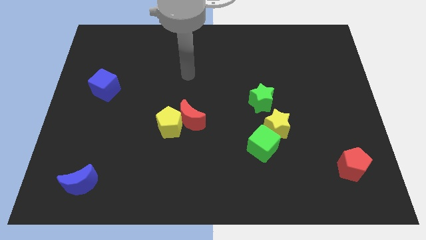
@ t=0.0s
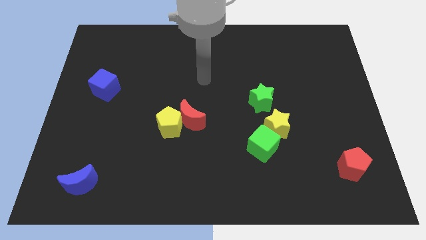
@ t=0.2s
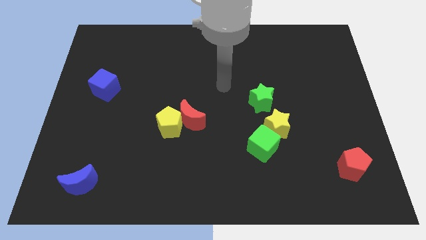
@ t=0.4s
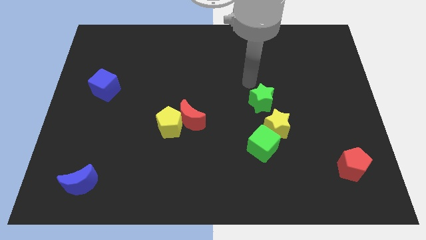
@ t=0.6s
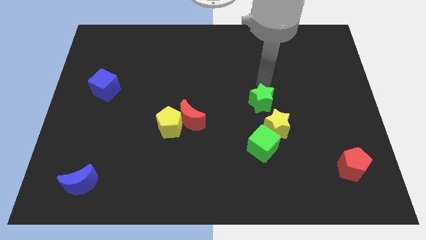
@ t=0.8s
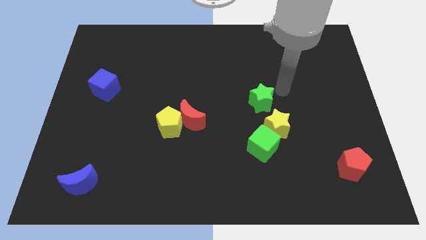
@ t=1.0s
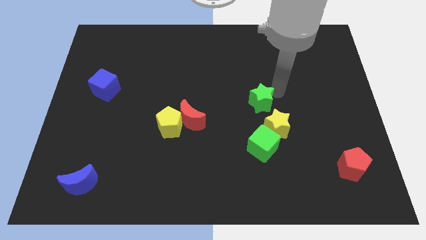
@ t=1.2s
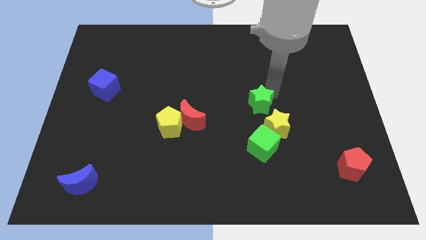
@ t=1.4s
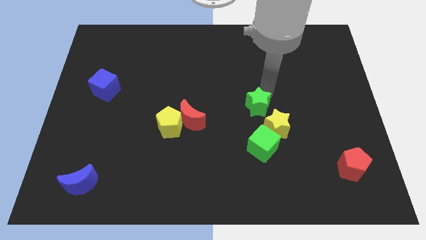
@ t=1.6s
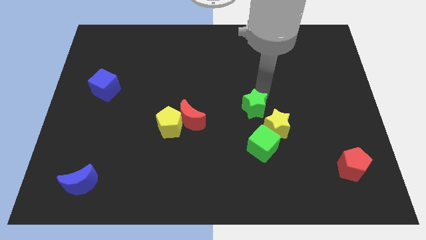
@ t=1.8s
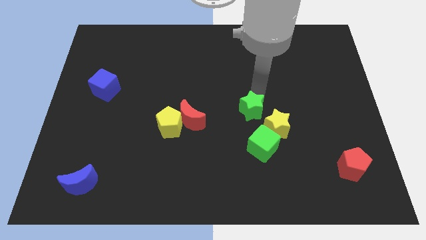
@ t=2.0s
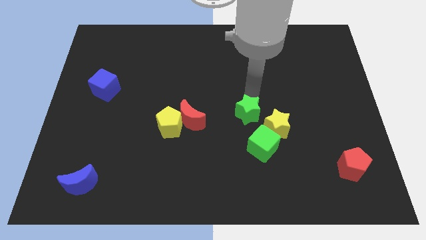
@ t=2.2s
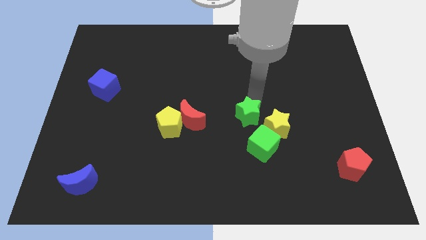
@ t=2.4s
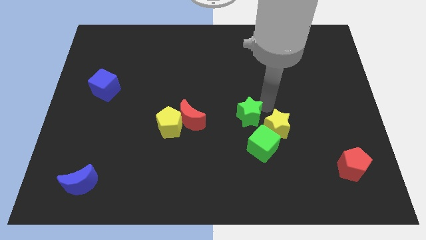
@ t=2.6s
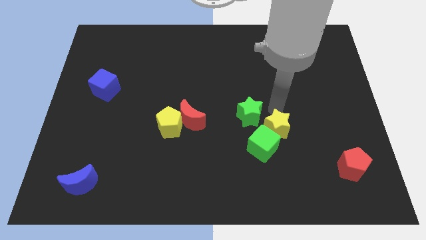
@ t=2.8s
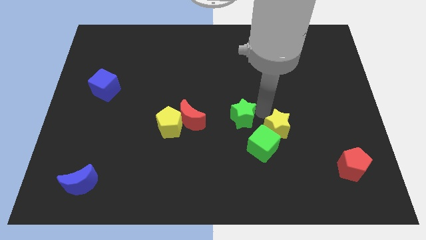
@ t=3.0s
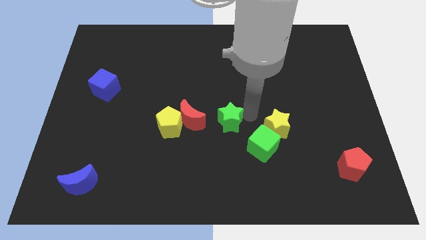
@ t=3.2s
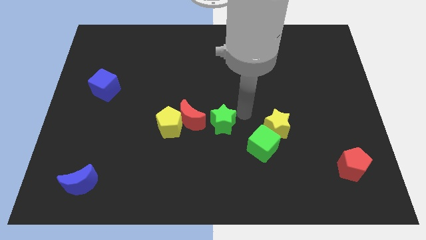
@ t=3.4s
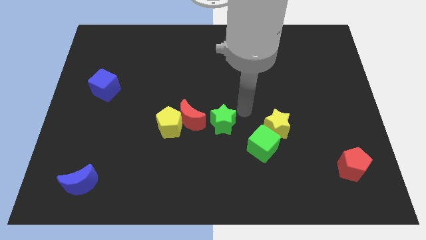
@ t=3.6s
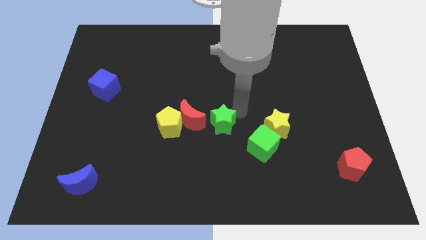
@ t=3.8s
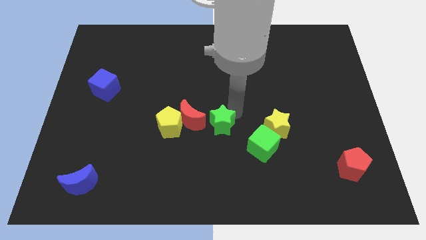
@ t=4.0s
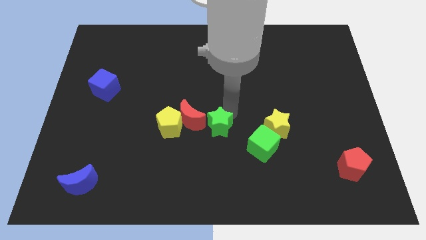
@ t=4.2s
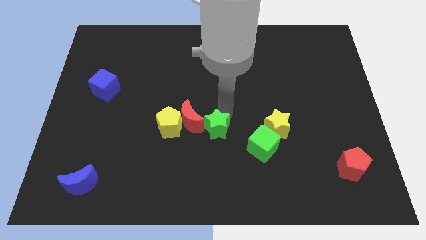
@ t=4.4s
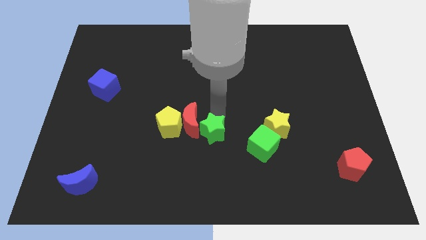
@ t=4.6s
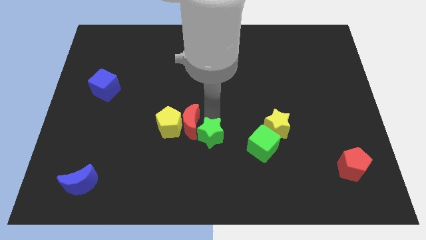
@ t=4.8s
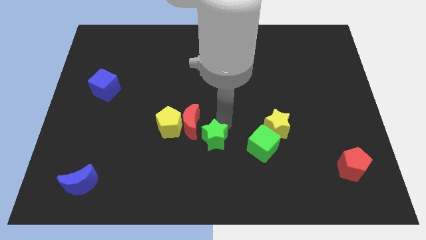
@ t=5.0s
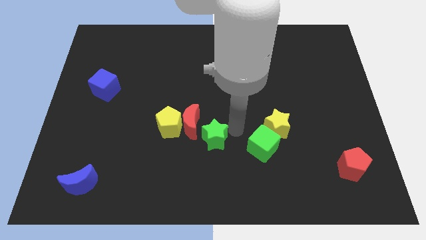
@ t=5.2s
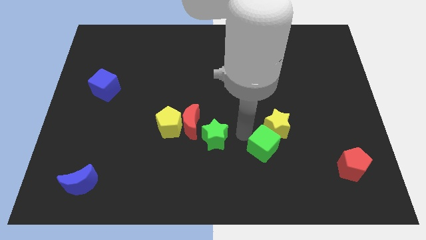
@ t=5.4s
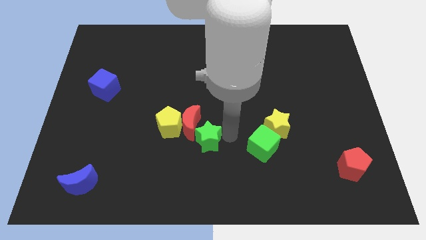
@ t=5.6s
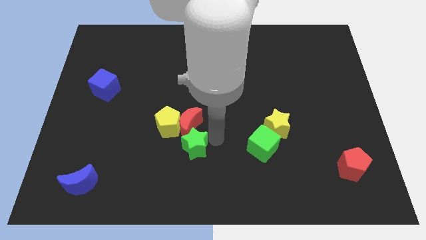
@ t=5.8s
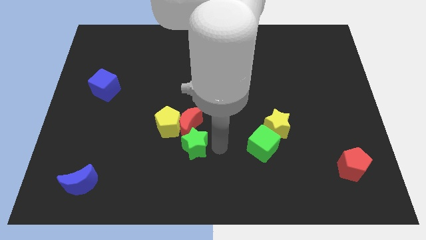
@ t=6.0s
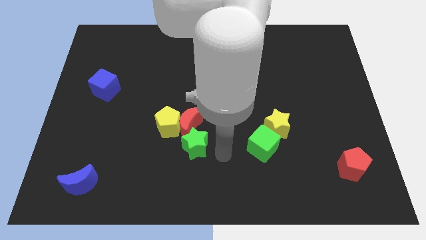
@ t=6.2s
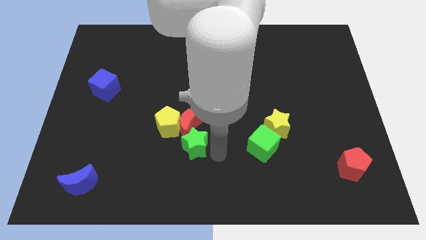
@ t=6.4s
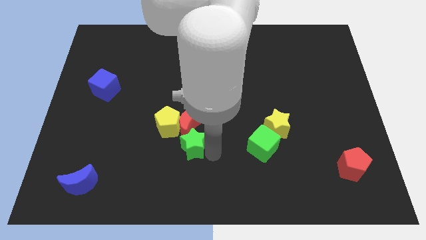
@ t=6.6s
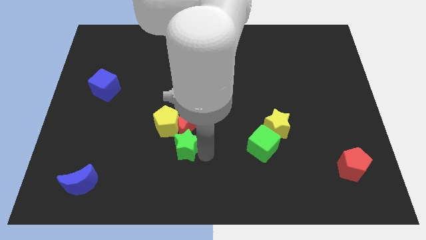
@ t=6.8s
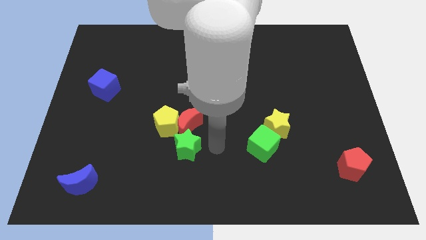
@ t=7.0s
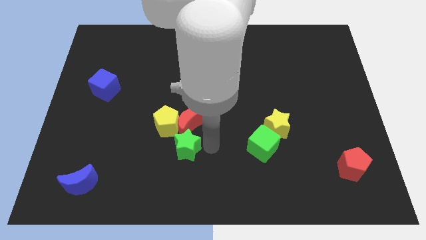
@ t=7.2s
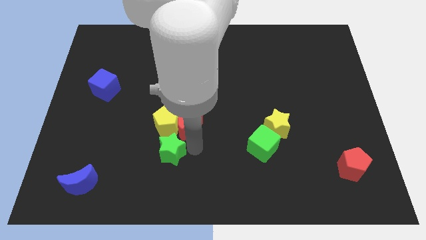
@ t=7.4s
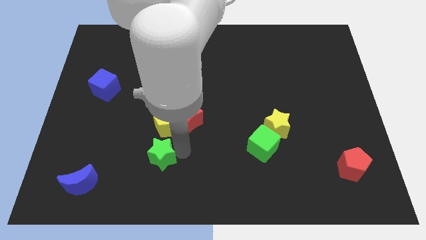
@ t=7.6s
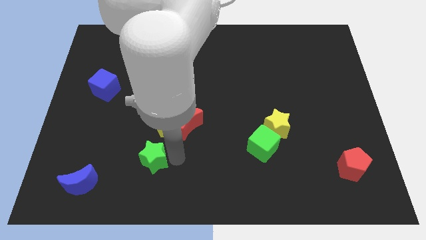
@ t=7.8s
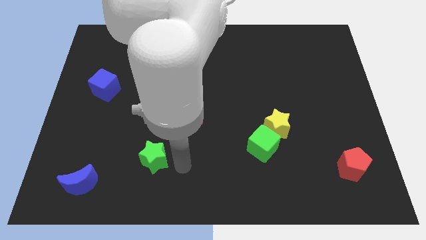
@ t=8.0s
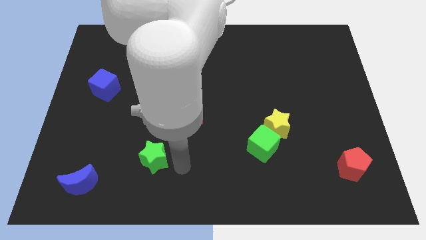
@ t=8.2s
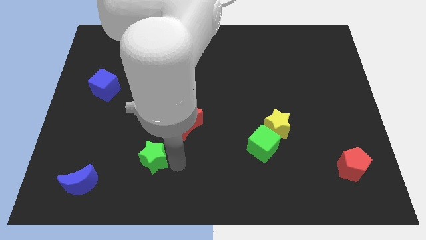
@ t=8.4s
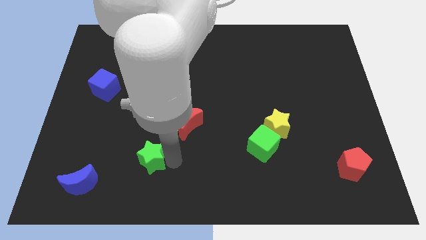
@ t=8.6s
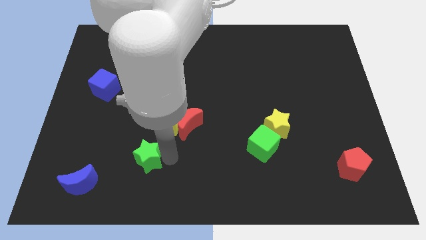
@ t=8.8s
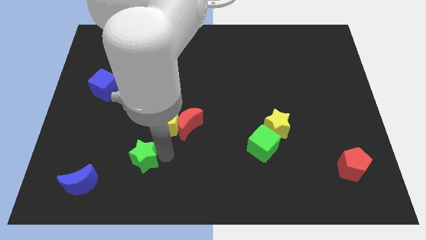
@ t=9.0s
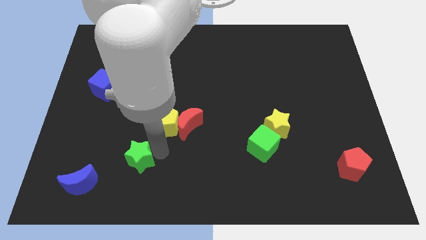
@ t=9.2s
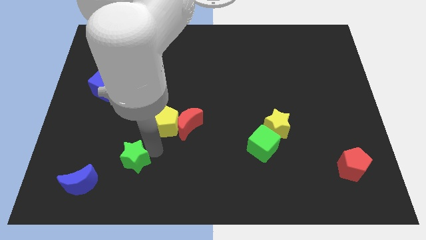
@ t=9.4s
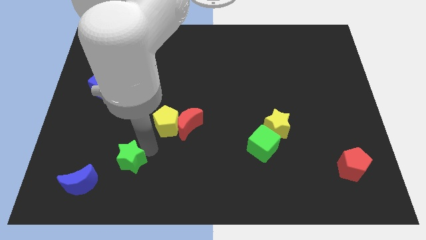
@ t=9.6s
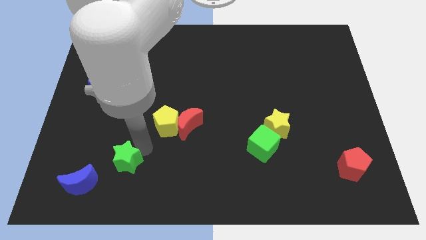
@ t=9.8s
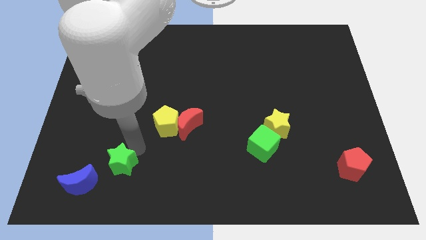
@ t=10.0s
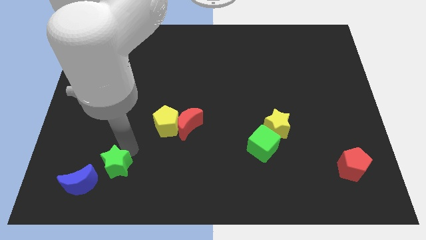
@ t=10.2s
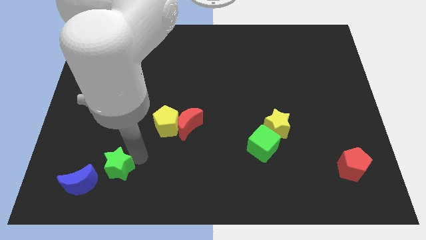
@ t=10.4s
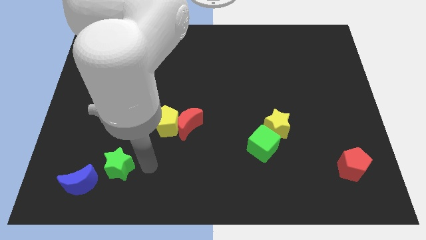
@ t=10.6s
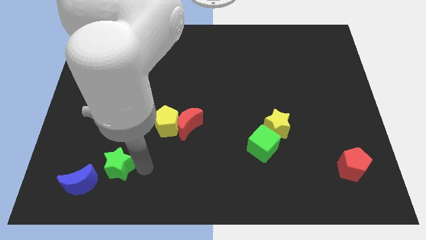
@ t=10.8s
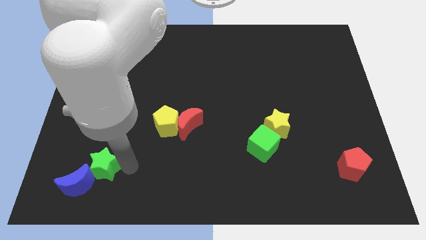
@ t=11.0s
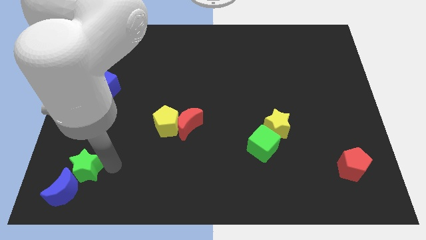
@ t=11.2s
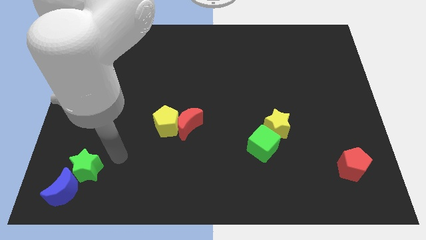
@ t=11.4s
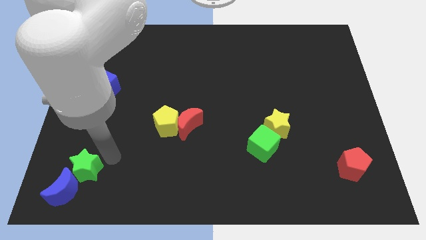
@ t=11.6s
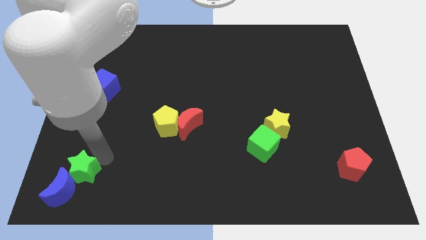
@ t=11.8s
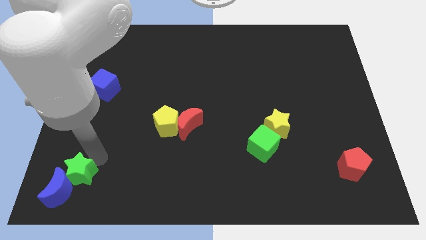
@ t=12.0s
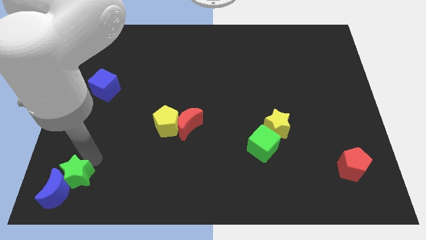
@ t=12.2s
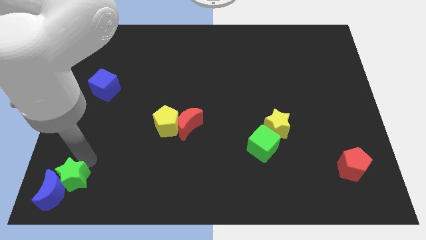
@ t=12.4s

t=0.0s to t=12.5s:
push the green star to the bottom left of the board
